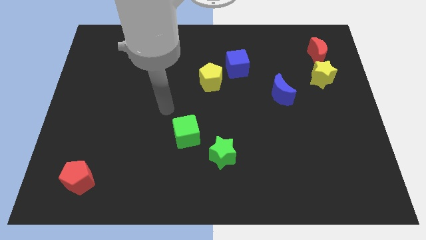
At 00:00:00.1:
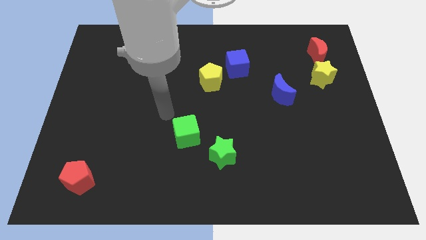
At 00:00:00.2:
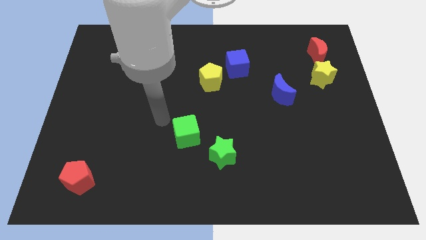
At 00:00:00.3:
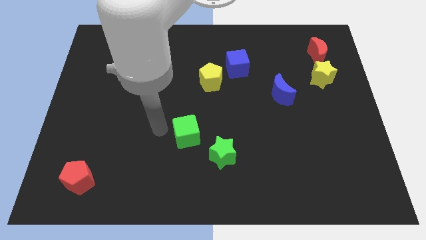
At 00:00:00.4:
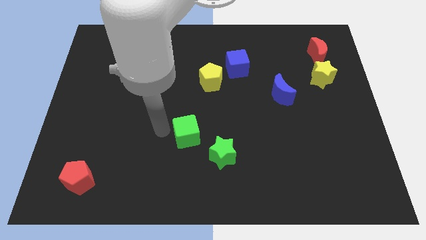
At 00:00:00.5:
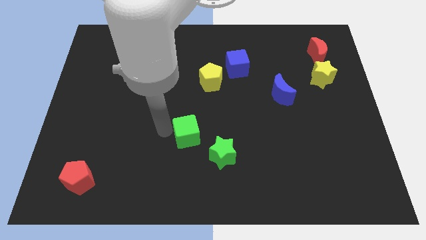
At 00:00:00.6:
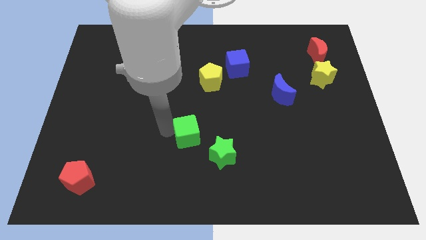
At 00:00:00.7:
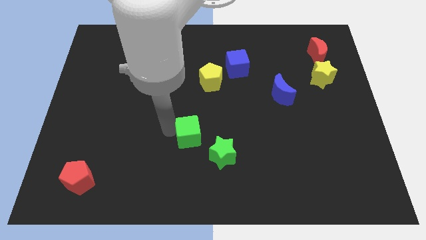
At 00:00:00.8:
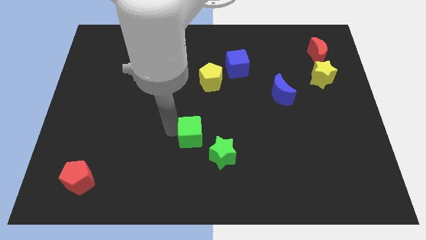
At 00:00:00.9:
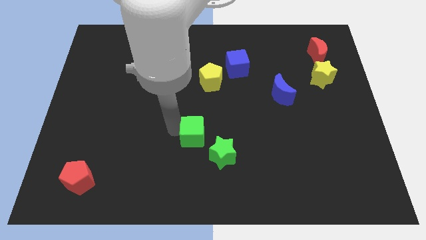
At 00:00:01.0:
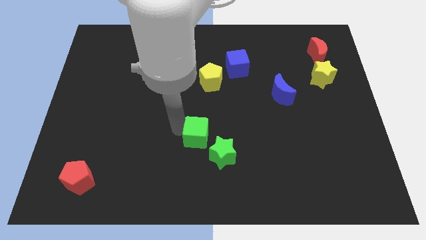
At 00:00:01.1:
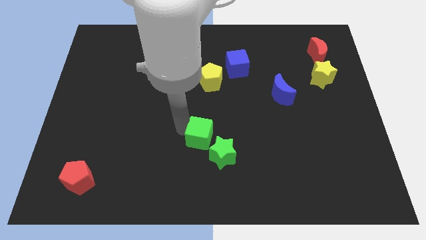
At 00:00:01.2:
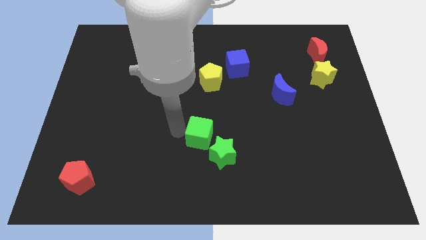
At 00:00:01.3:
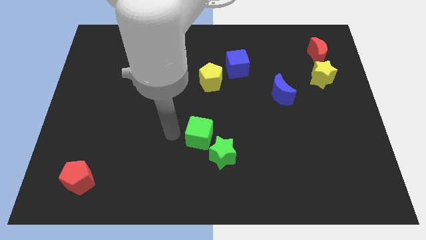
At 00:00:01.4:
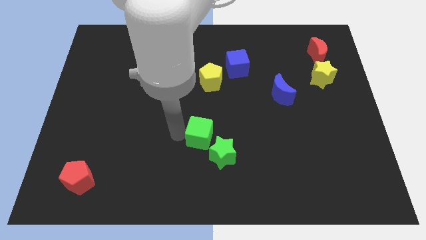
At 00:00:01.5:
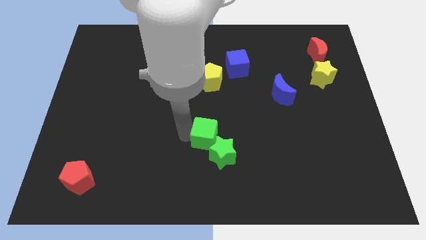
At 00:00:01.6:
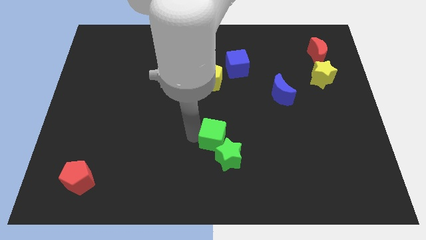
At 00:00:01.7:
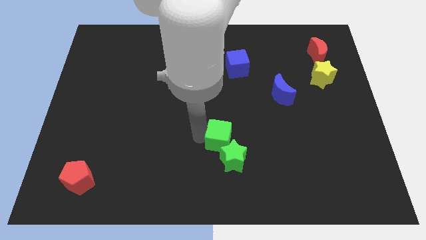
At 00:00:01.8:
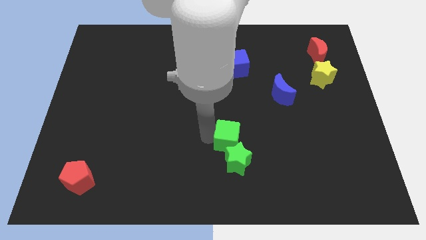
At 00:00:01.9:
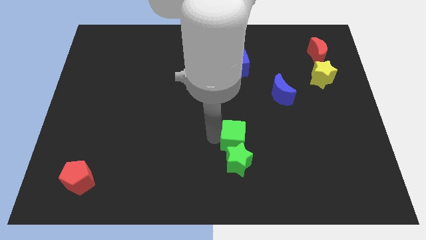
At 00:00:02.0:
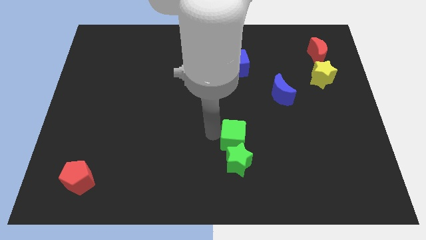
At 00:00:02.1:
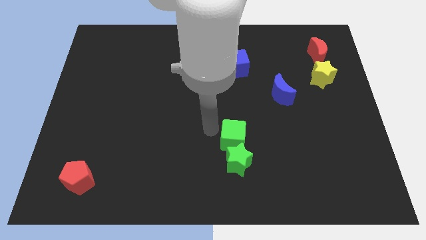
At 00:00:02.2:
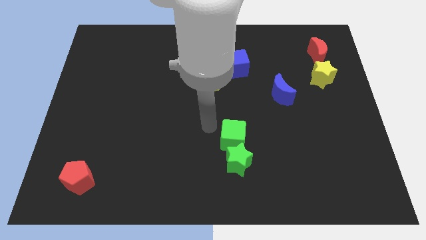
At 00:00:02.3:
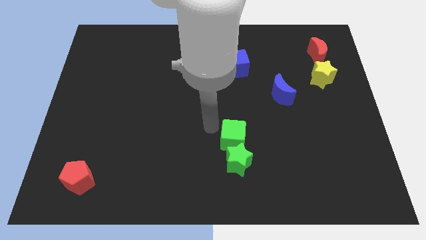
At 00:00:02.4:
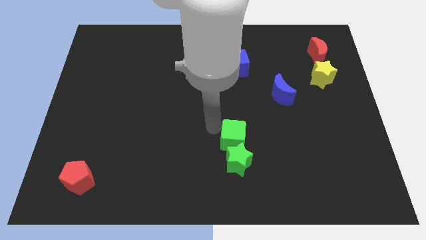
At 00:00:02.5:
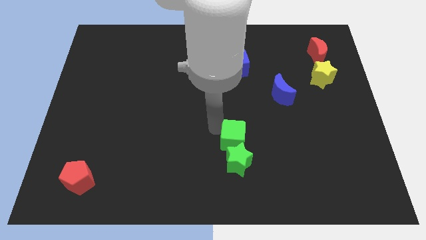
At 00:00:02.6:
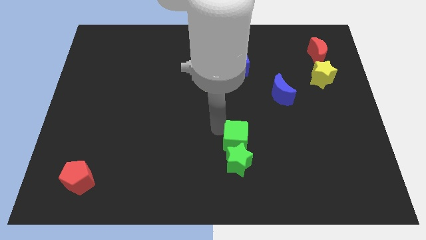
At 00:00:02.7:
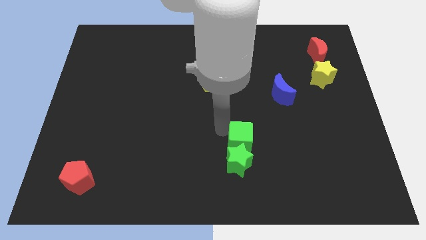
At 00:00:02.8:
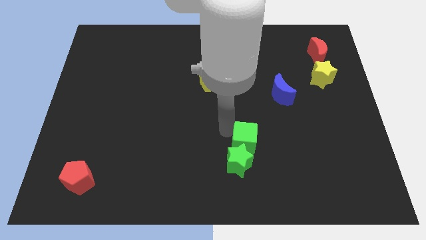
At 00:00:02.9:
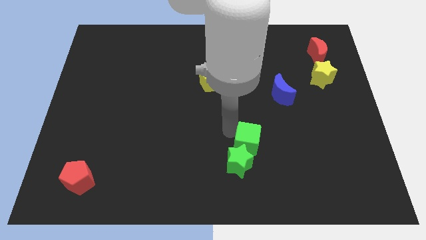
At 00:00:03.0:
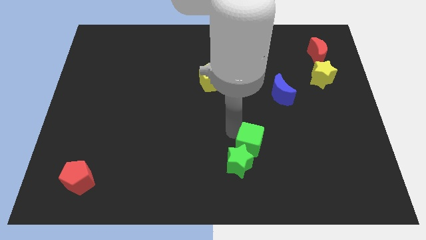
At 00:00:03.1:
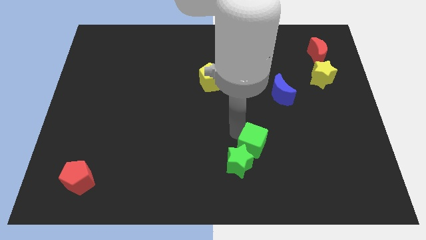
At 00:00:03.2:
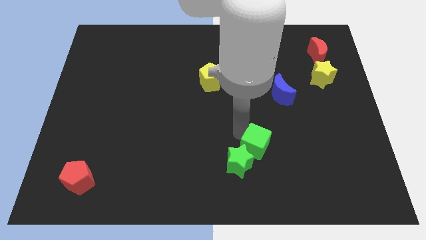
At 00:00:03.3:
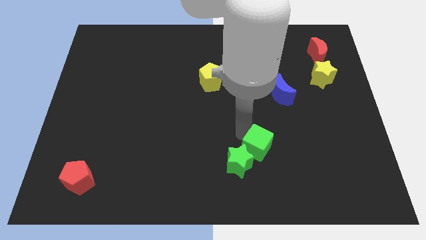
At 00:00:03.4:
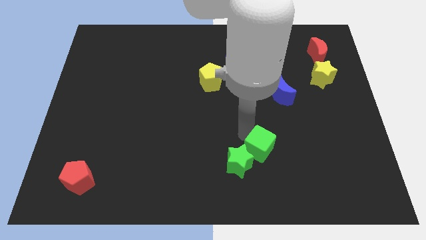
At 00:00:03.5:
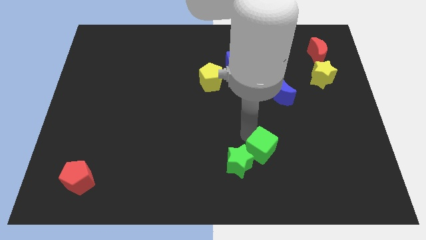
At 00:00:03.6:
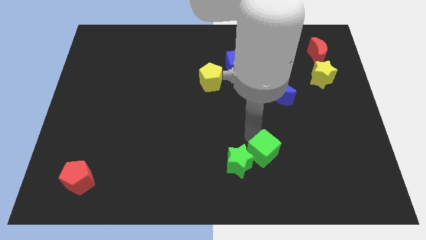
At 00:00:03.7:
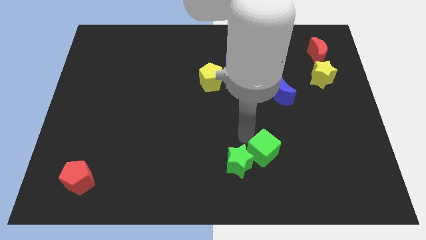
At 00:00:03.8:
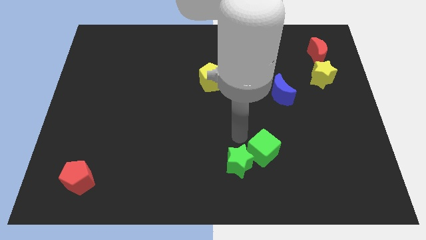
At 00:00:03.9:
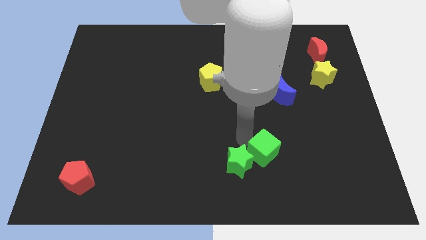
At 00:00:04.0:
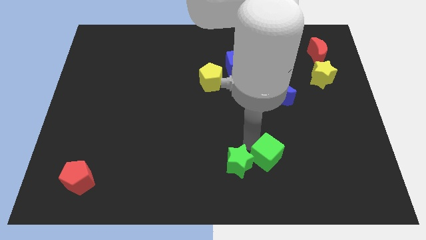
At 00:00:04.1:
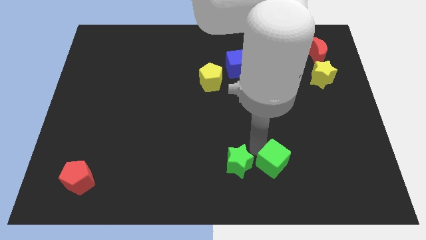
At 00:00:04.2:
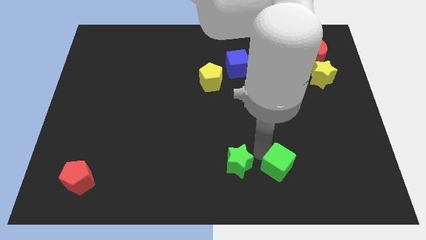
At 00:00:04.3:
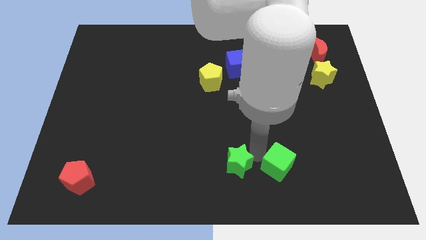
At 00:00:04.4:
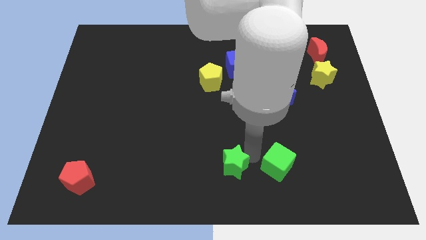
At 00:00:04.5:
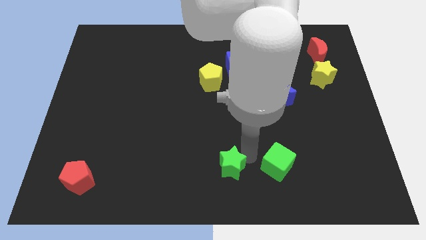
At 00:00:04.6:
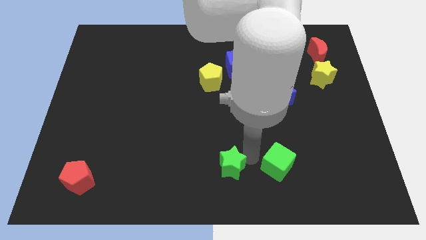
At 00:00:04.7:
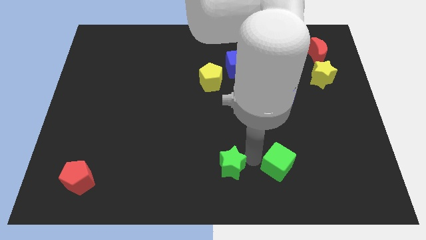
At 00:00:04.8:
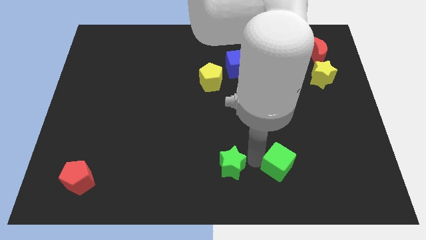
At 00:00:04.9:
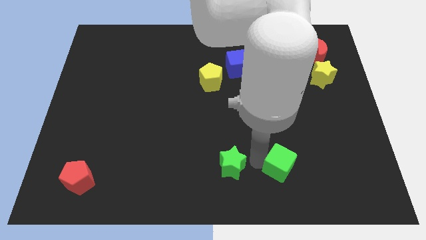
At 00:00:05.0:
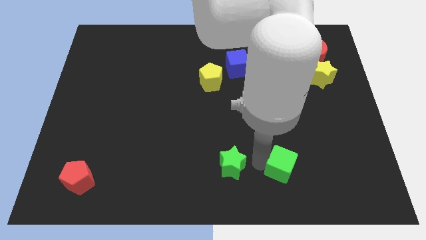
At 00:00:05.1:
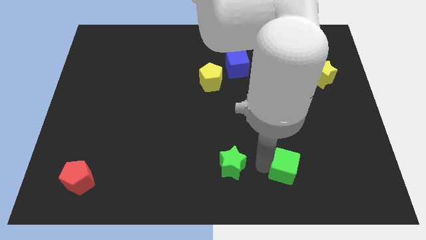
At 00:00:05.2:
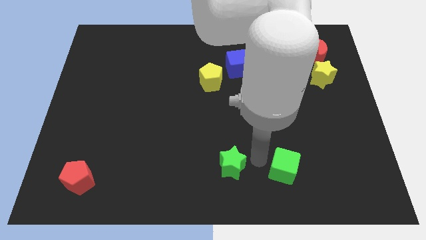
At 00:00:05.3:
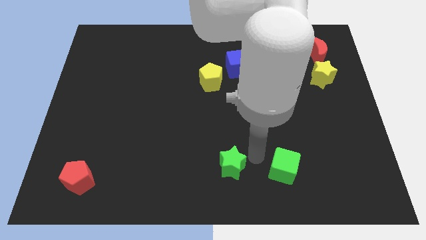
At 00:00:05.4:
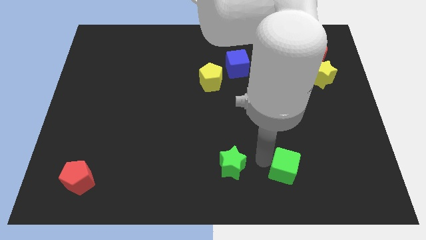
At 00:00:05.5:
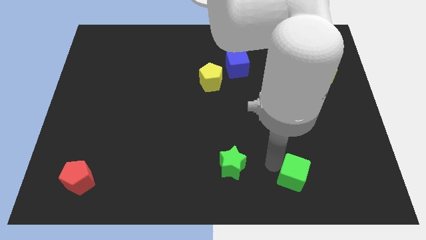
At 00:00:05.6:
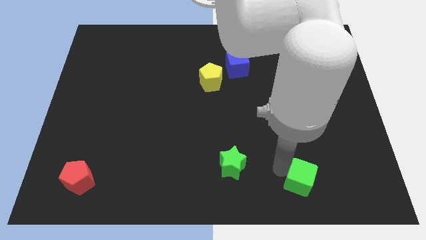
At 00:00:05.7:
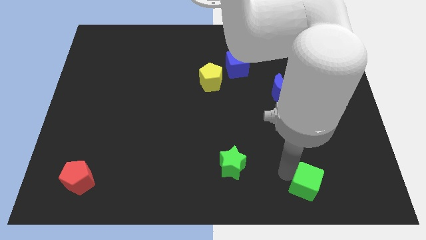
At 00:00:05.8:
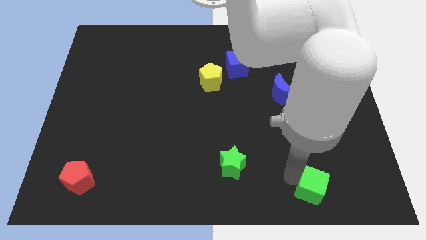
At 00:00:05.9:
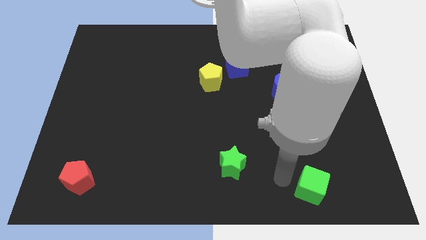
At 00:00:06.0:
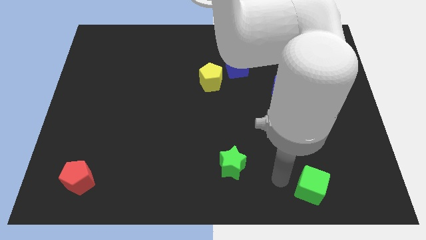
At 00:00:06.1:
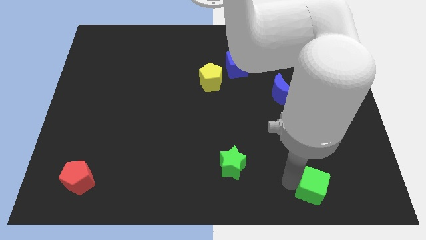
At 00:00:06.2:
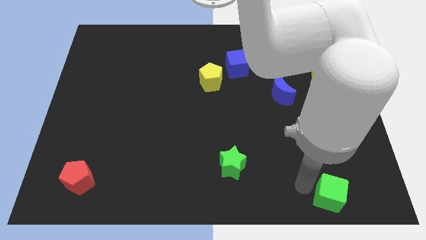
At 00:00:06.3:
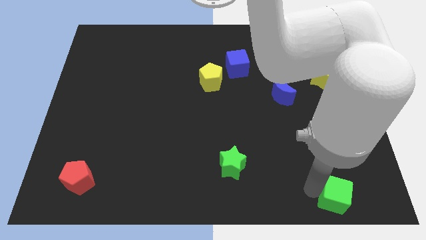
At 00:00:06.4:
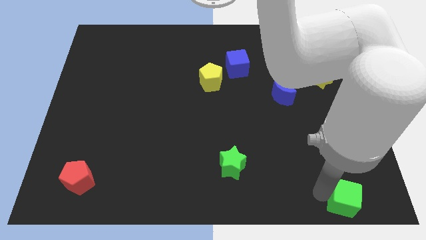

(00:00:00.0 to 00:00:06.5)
put the green cube to the lower right corner
